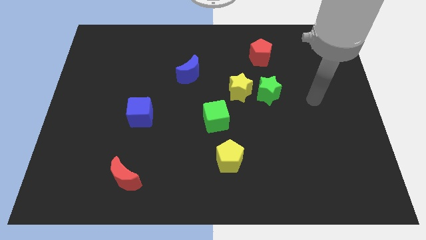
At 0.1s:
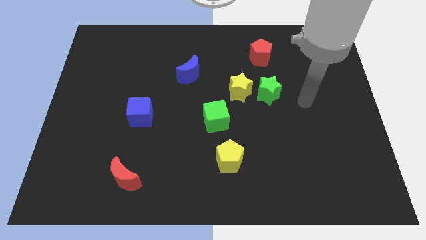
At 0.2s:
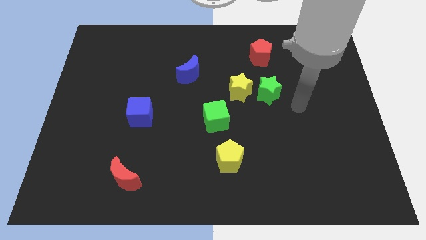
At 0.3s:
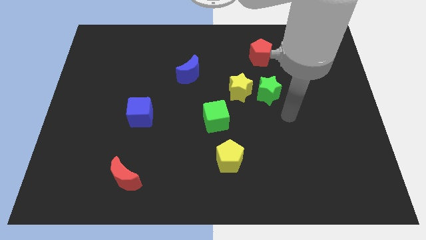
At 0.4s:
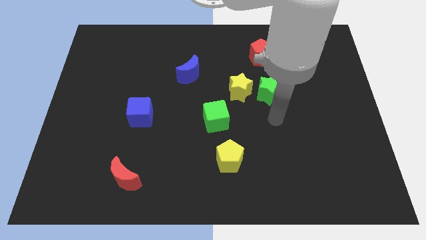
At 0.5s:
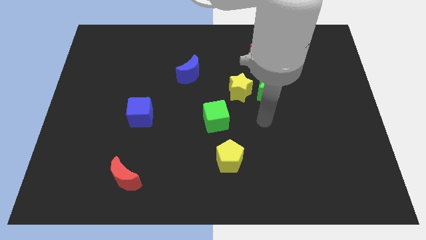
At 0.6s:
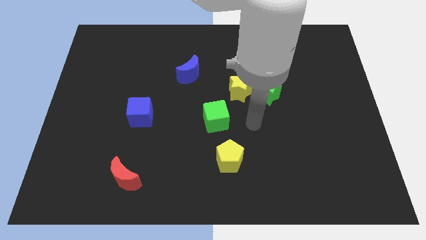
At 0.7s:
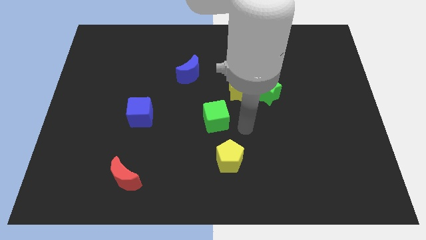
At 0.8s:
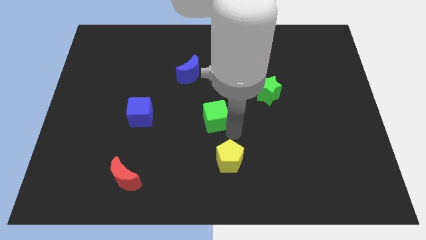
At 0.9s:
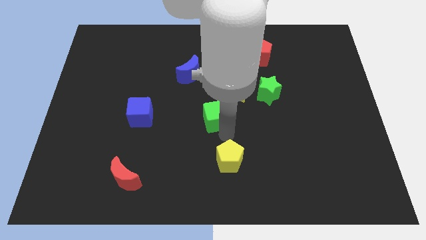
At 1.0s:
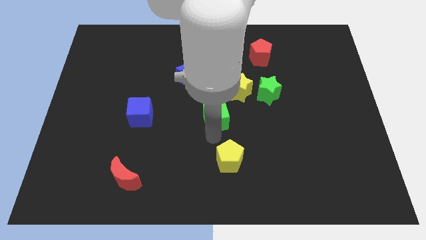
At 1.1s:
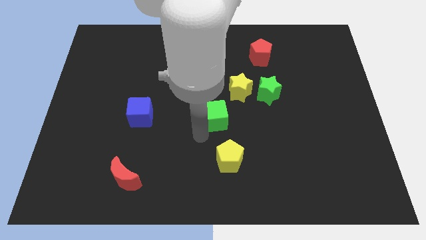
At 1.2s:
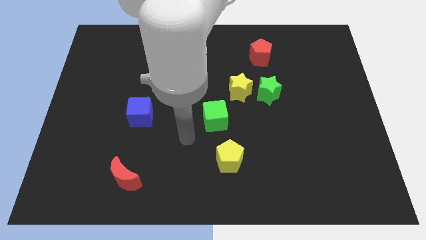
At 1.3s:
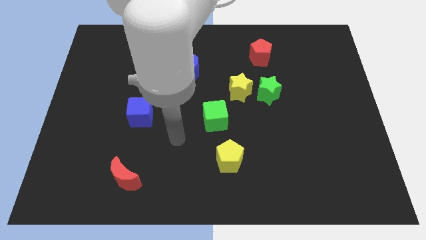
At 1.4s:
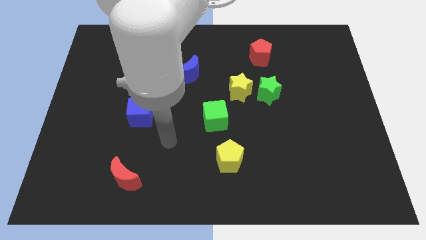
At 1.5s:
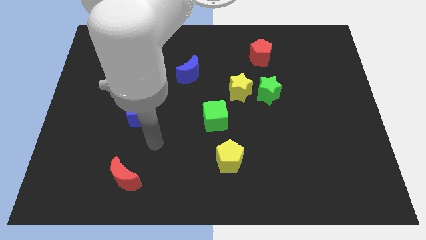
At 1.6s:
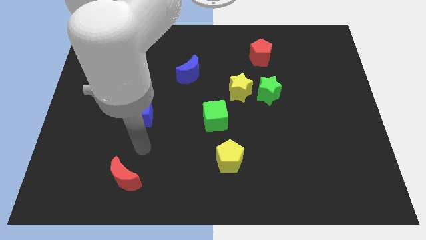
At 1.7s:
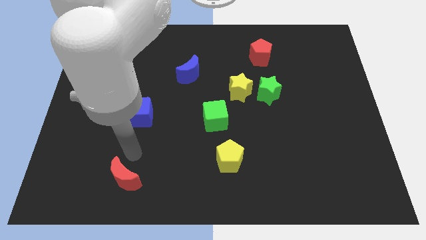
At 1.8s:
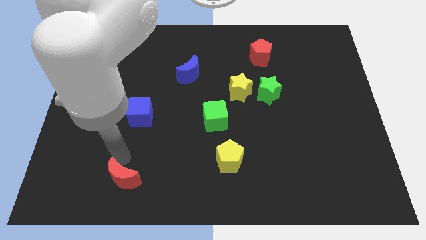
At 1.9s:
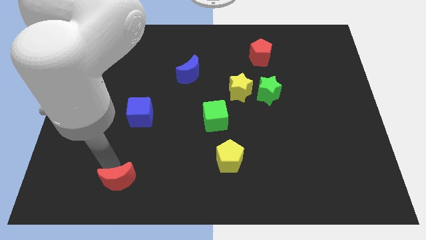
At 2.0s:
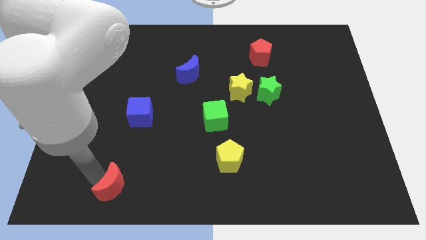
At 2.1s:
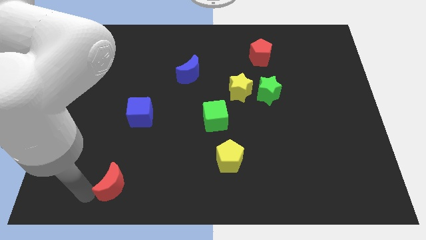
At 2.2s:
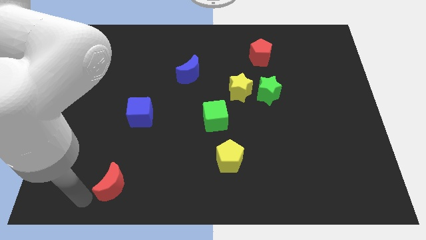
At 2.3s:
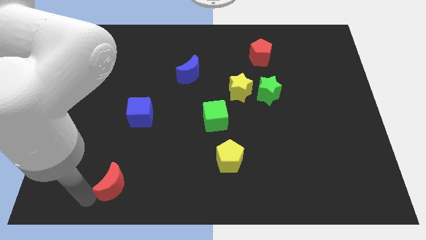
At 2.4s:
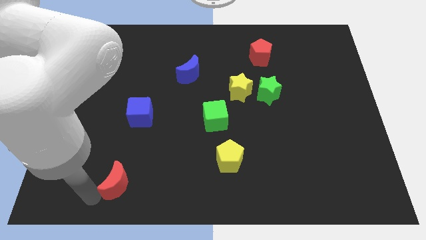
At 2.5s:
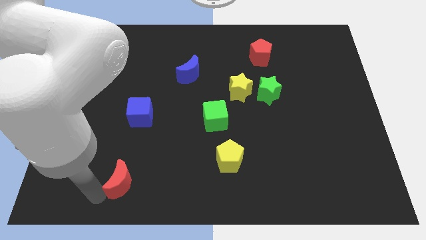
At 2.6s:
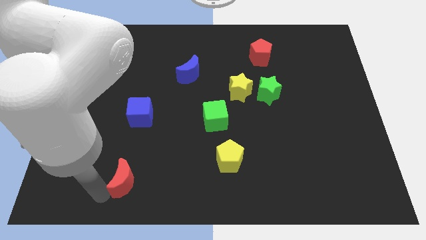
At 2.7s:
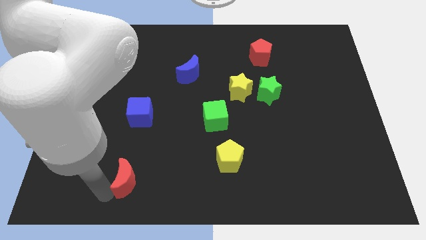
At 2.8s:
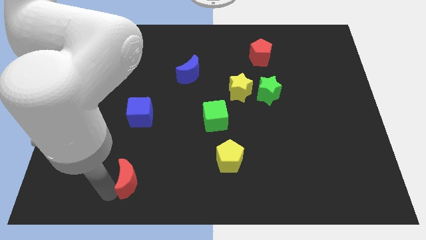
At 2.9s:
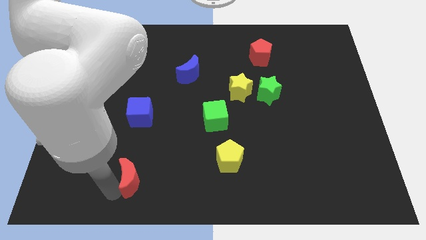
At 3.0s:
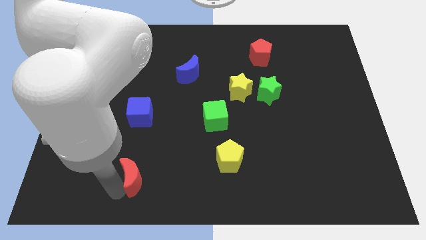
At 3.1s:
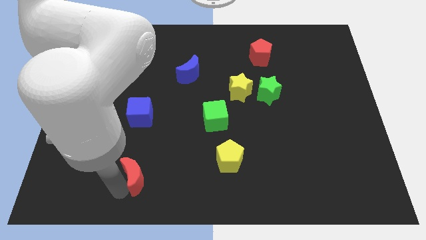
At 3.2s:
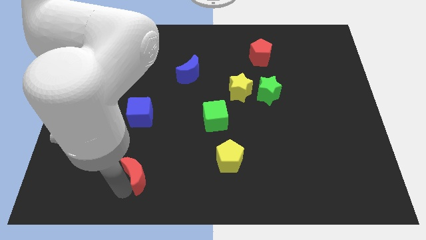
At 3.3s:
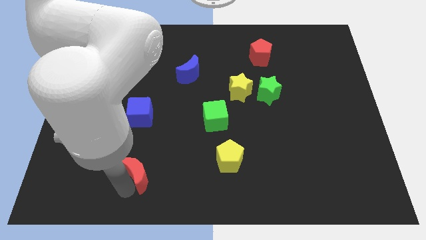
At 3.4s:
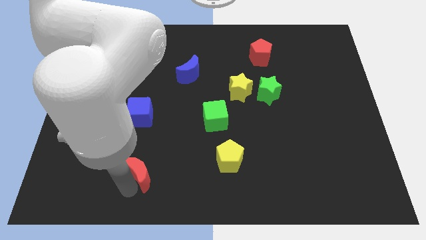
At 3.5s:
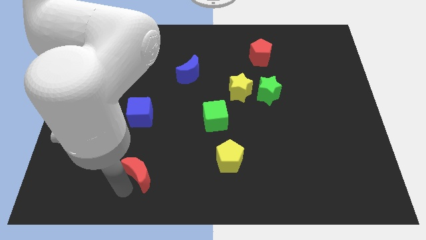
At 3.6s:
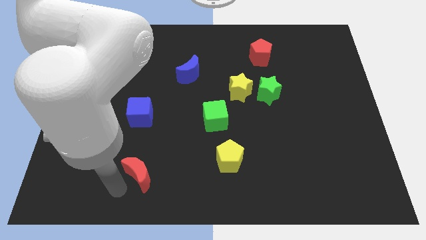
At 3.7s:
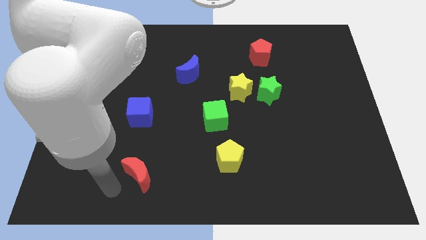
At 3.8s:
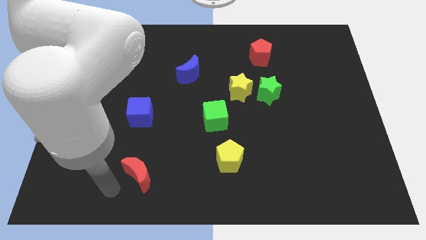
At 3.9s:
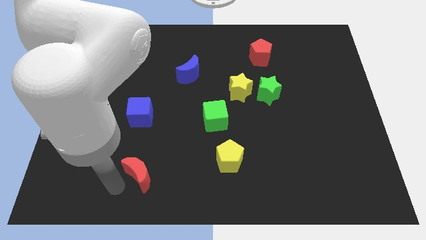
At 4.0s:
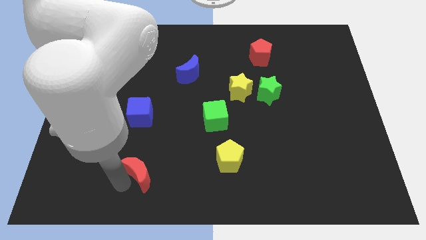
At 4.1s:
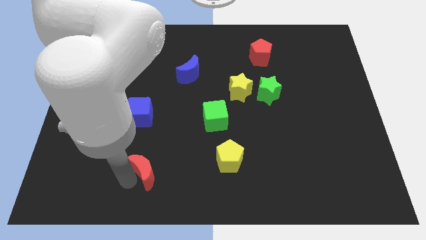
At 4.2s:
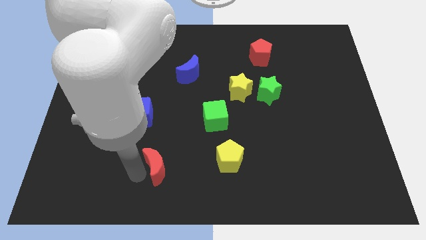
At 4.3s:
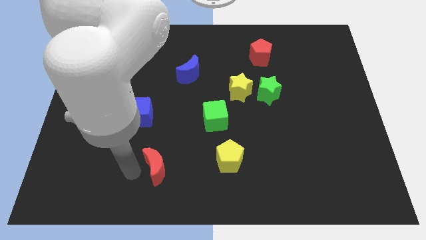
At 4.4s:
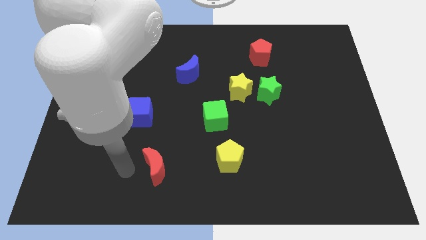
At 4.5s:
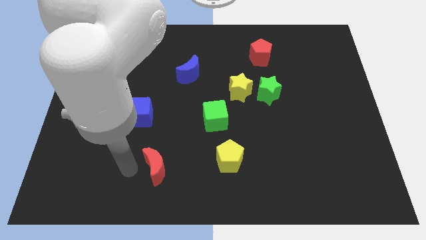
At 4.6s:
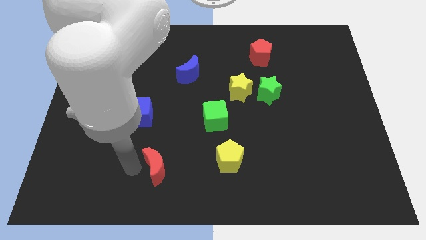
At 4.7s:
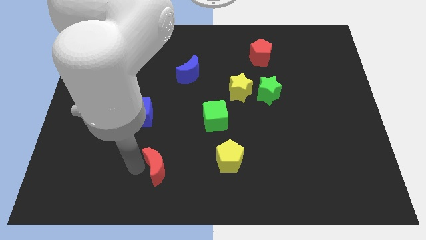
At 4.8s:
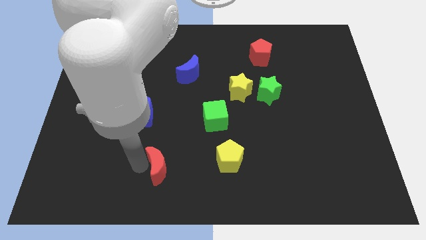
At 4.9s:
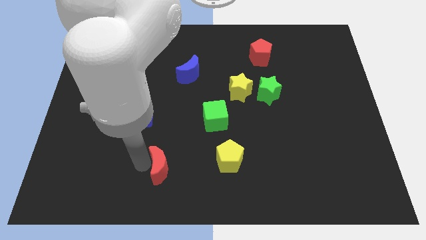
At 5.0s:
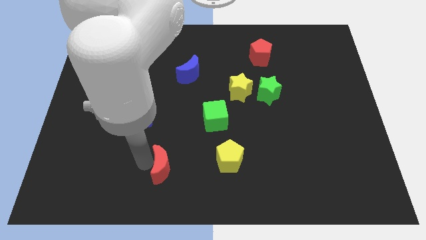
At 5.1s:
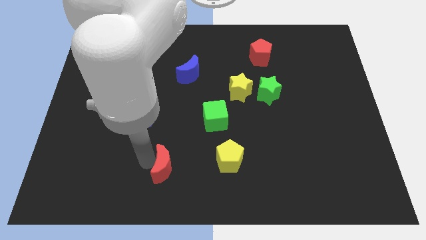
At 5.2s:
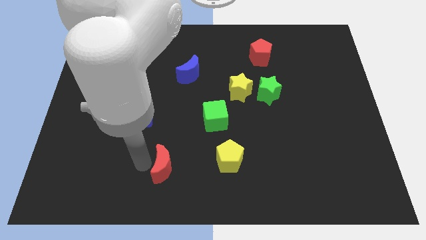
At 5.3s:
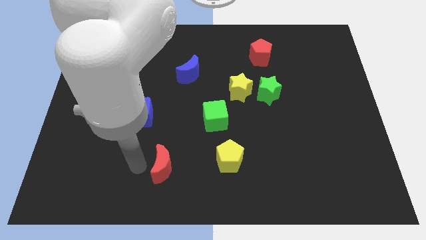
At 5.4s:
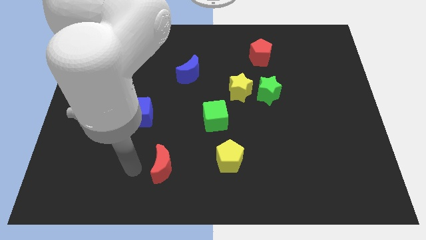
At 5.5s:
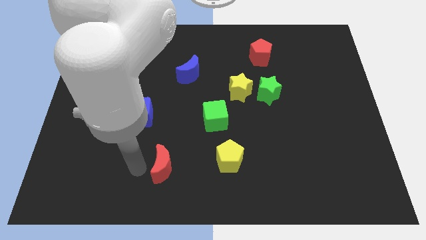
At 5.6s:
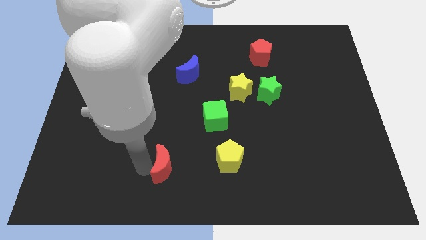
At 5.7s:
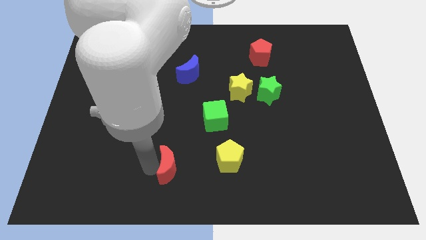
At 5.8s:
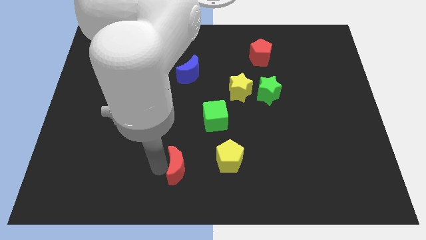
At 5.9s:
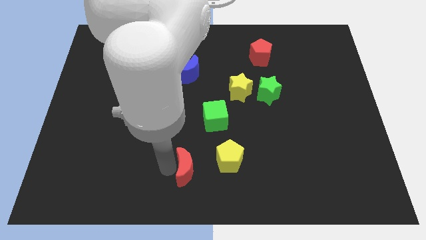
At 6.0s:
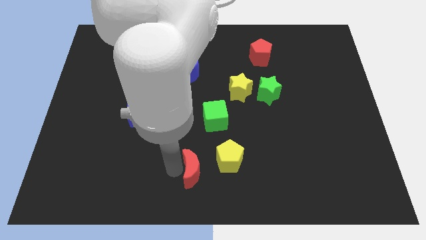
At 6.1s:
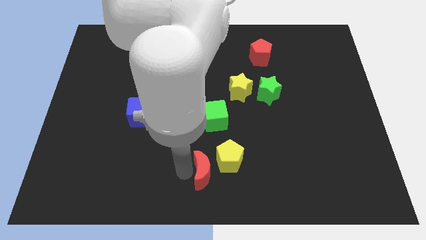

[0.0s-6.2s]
move the red moon next to the yellow pentagon
